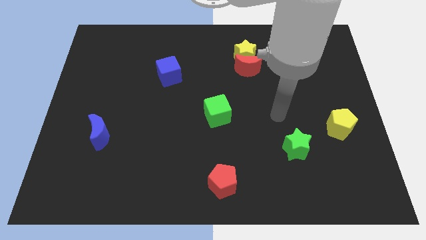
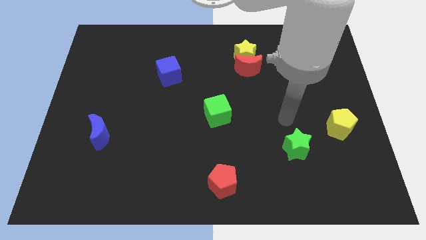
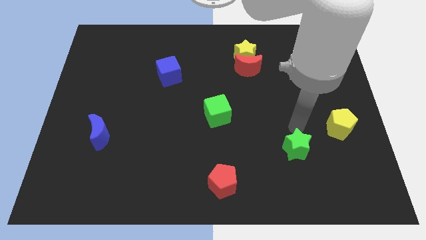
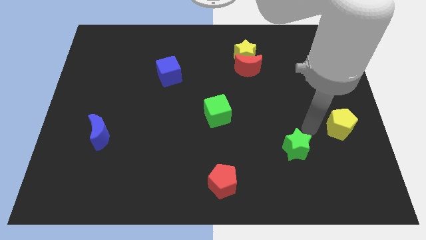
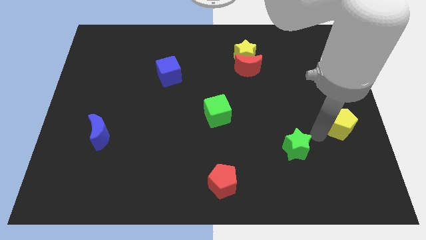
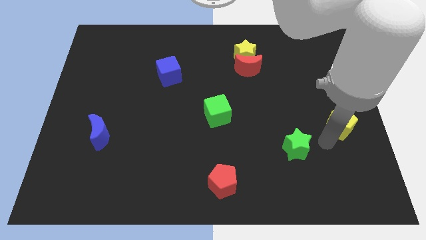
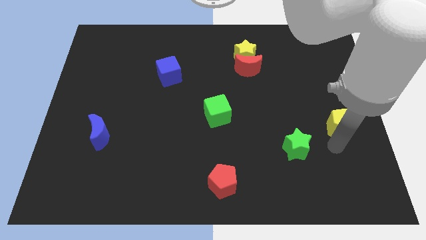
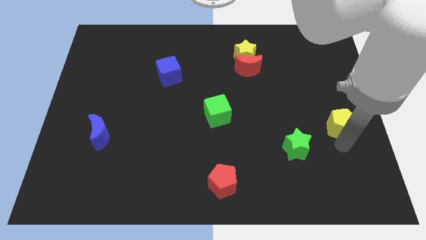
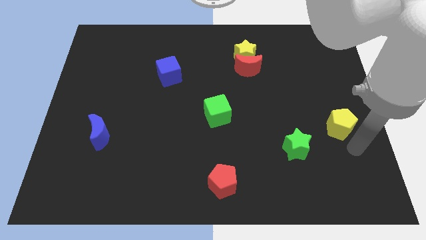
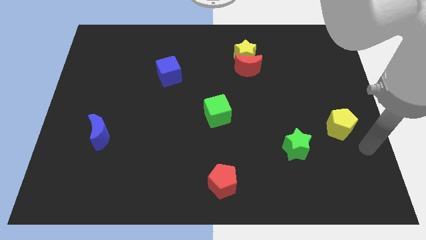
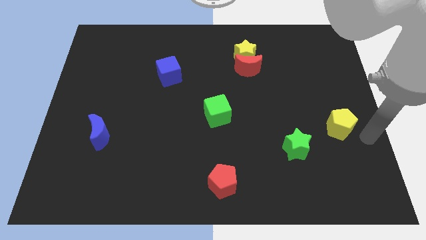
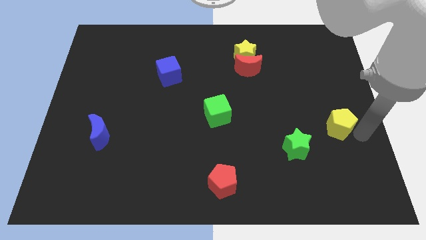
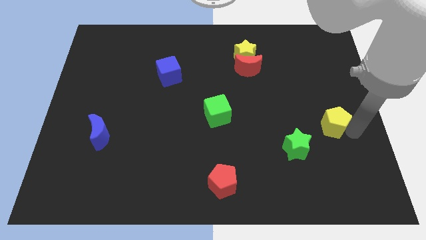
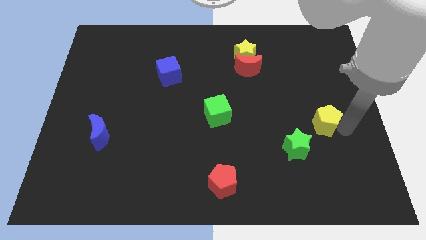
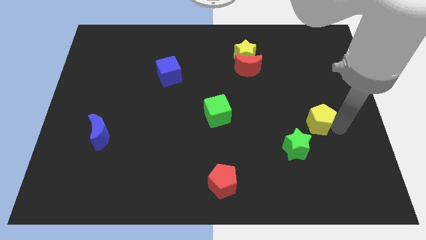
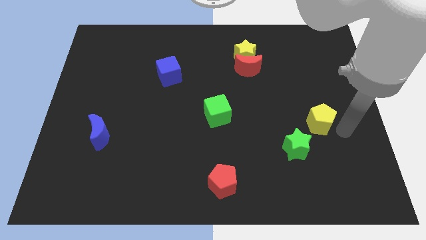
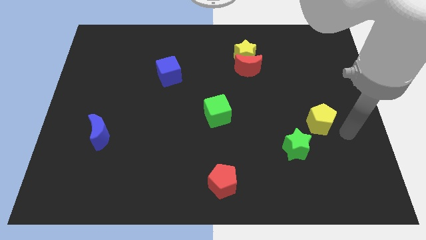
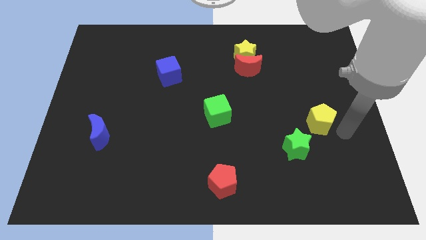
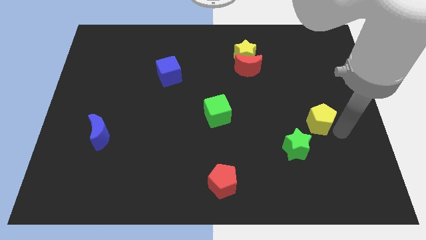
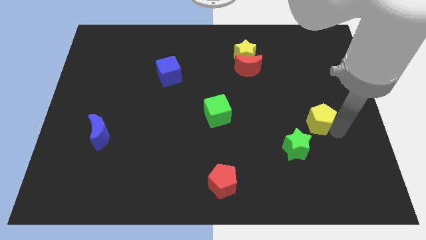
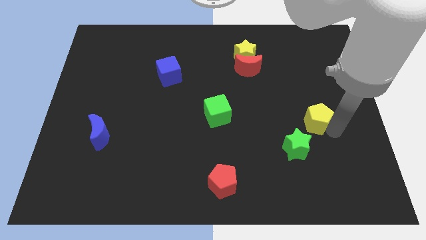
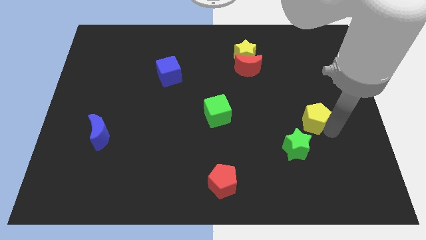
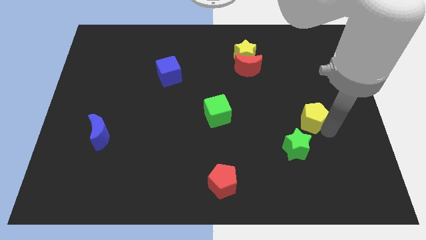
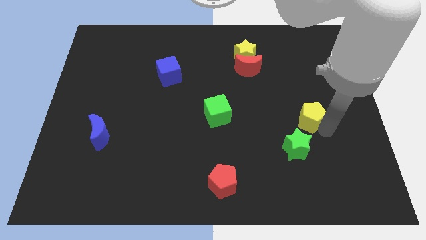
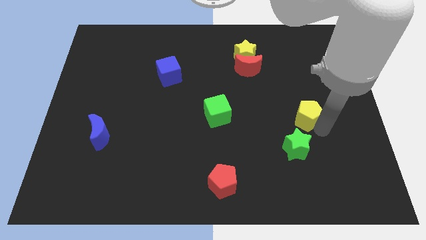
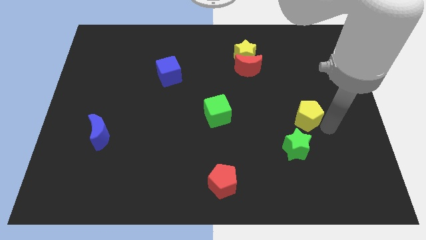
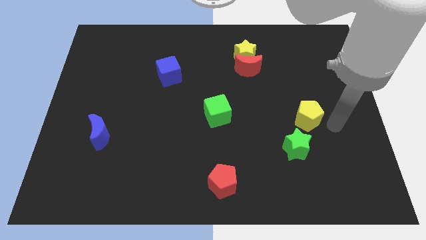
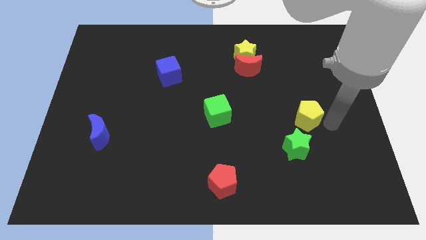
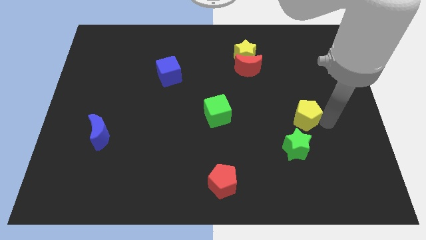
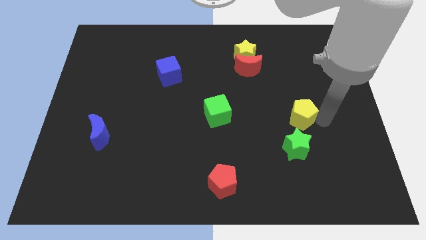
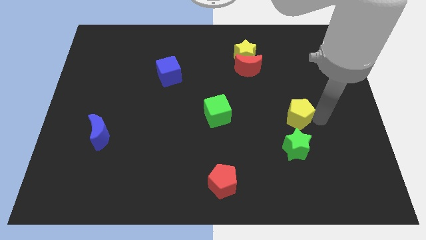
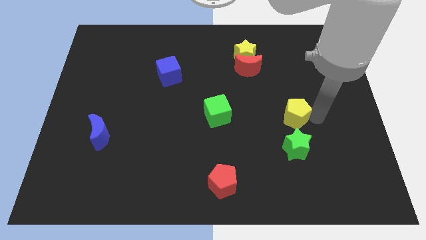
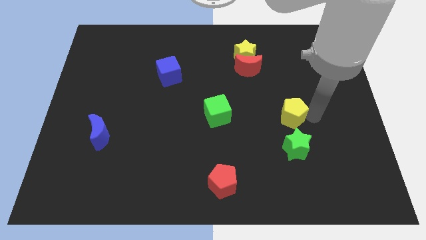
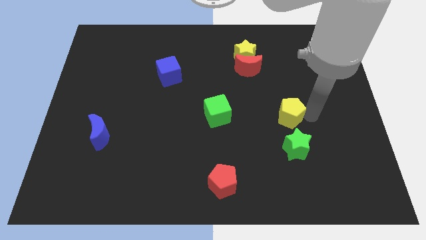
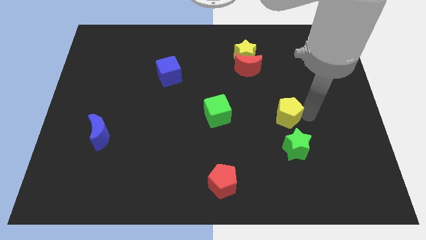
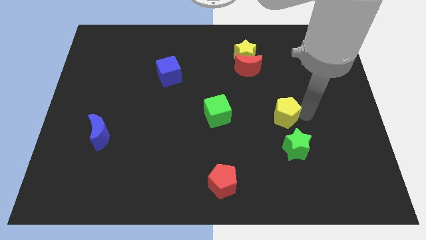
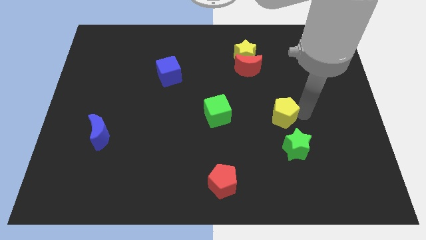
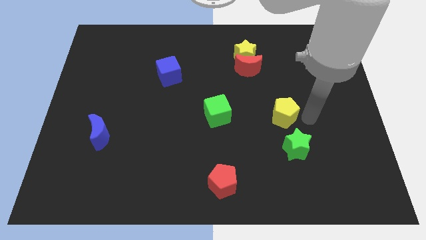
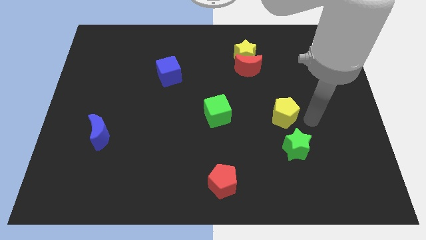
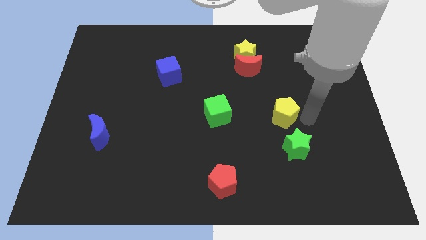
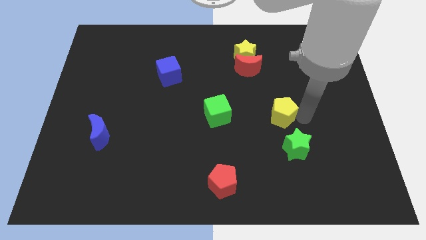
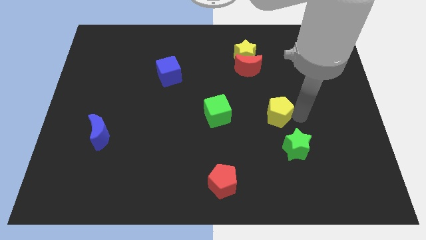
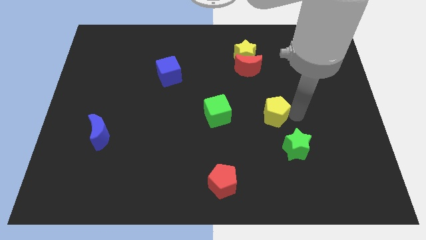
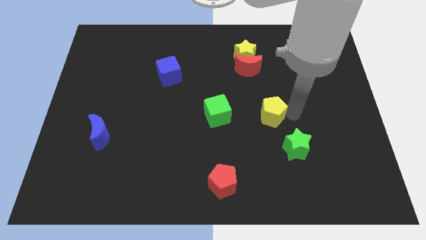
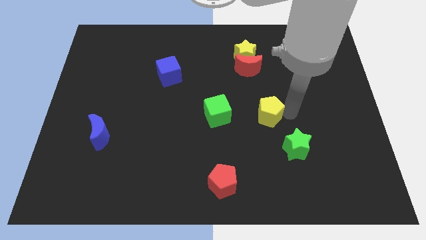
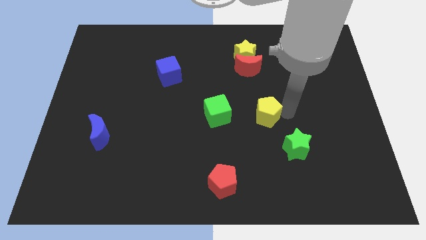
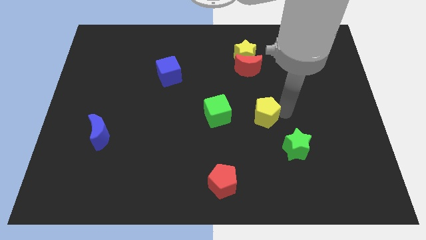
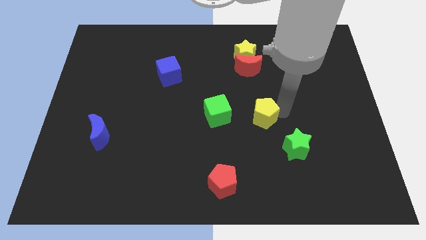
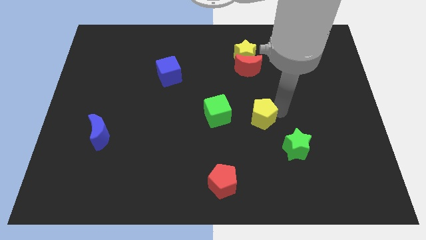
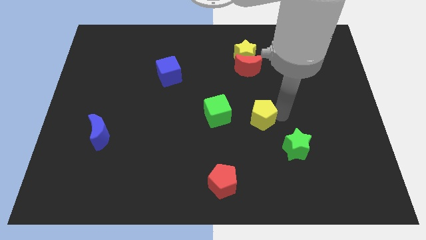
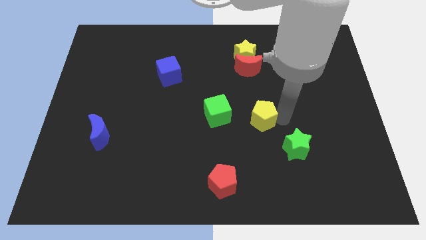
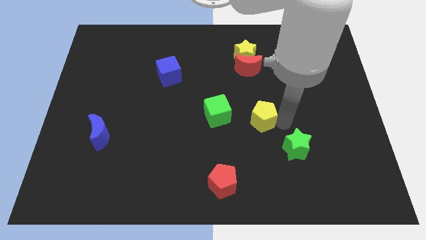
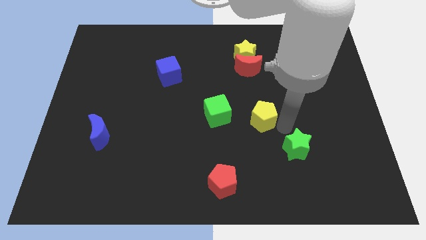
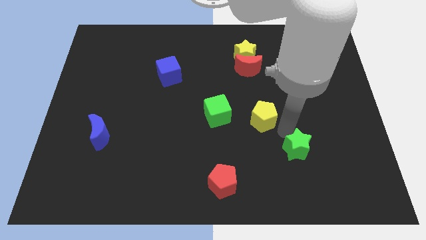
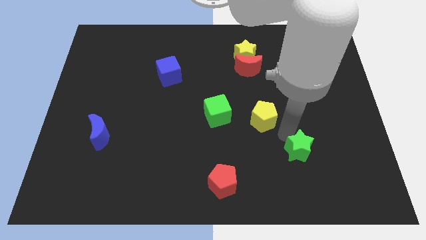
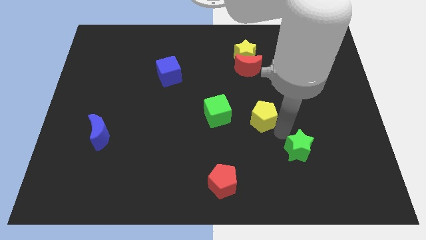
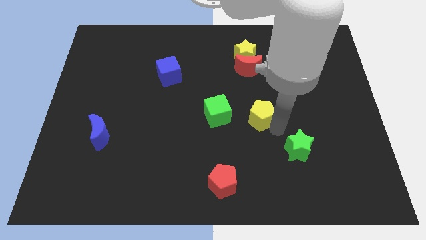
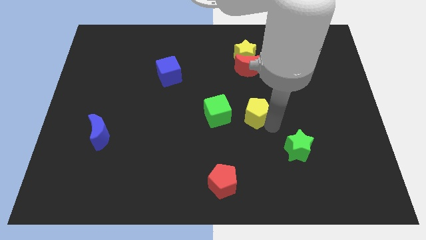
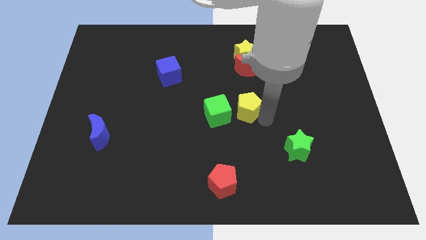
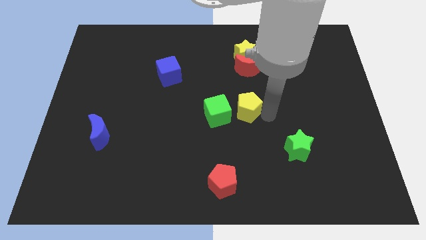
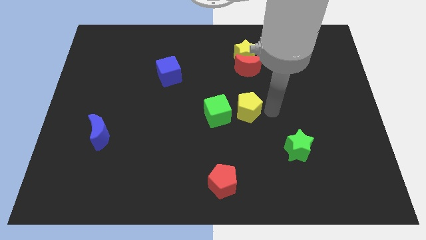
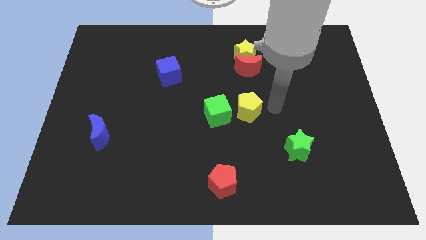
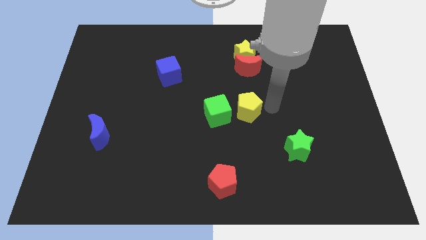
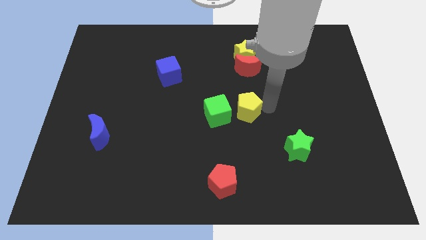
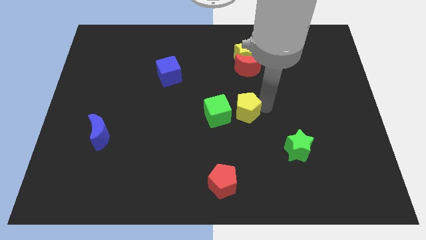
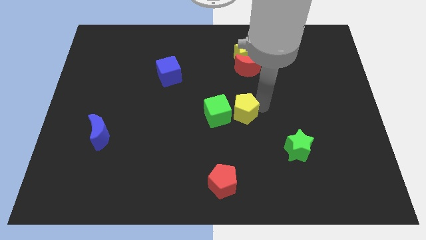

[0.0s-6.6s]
move the yellow pentagon next to the green cube

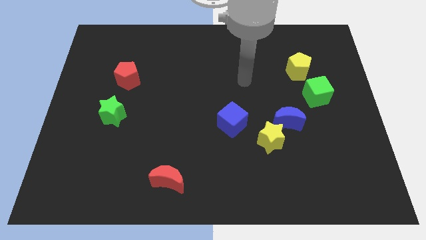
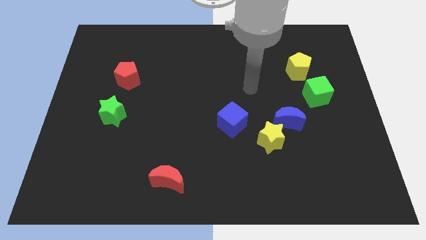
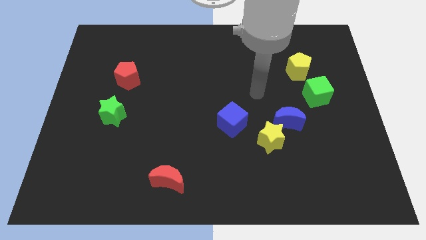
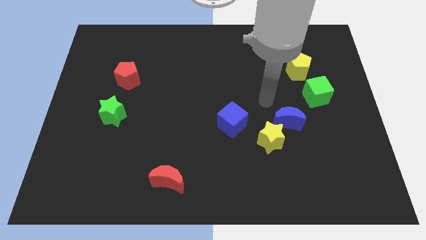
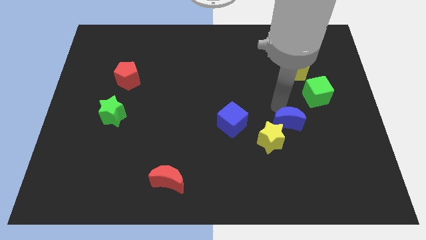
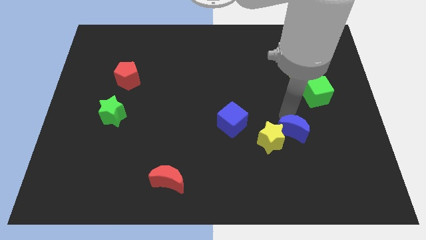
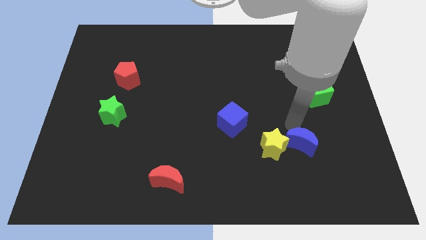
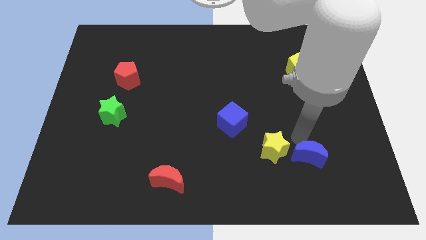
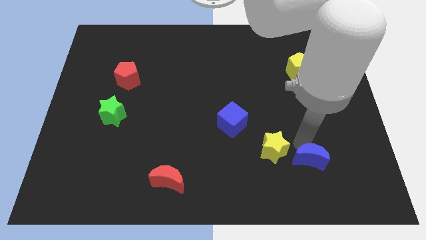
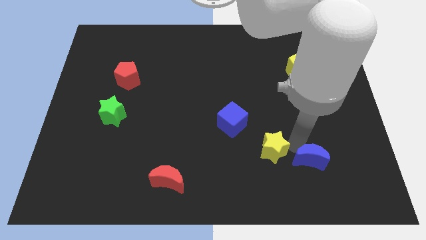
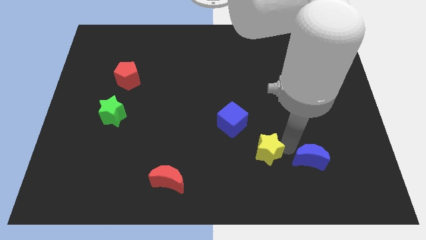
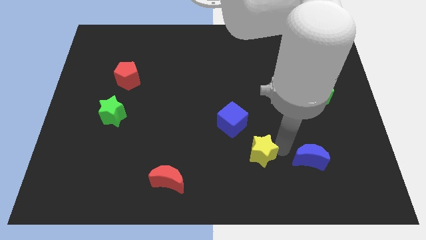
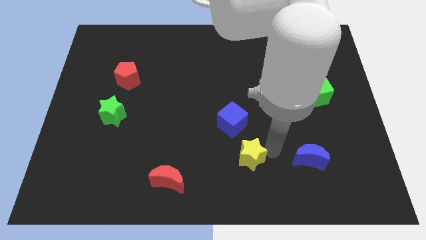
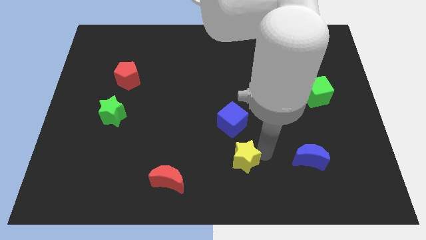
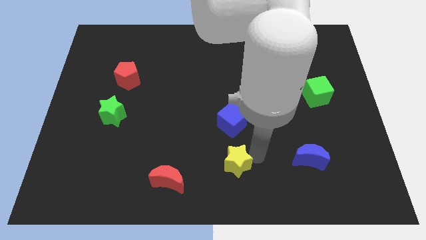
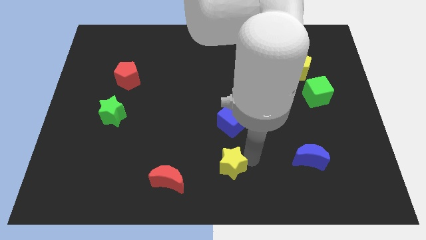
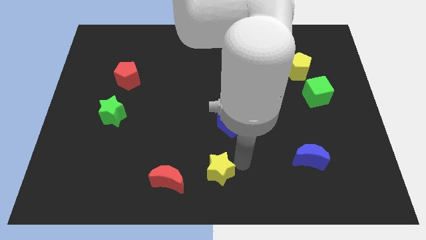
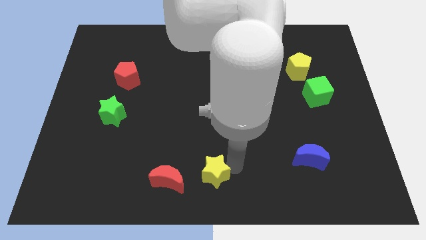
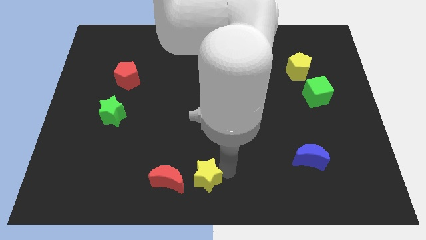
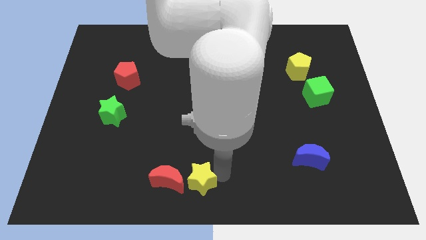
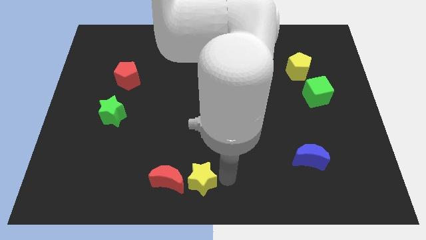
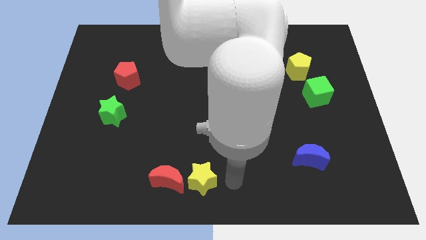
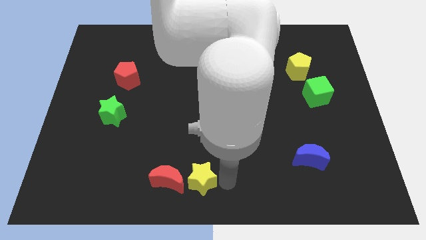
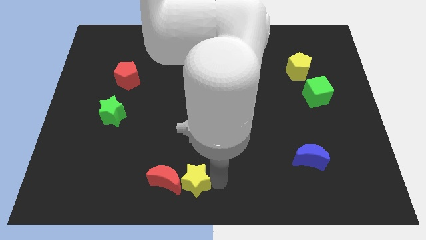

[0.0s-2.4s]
slide the yellow star close to the red moon
